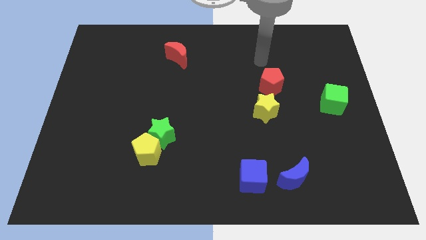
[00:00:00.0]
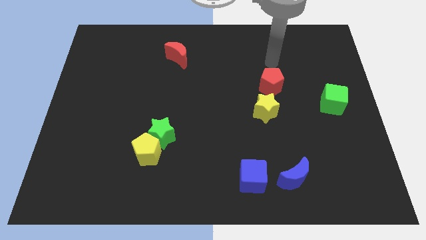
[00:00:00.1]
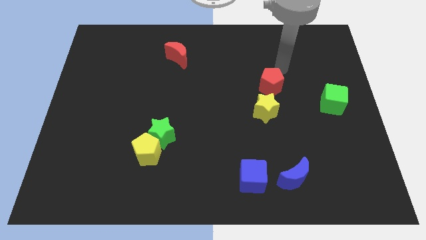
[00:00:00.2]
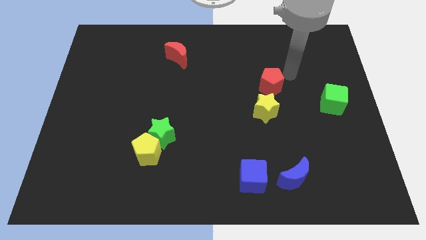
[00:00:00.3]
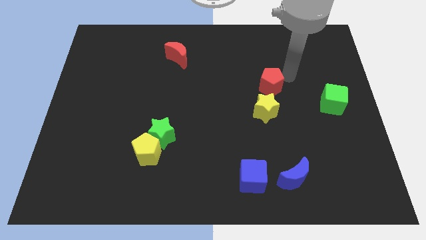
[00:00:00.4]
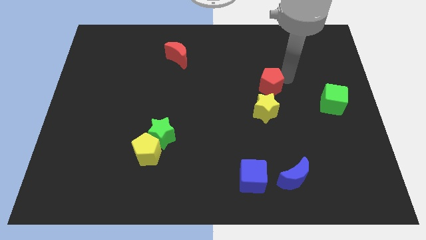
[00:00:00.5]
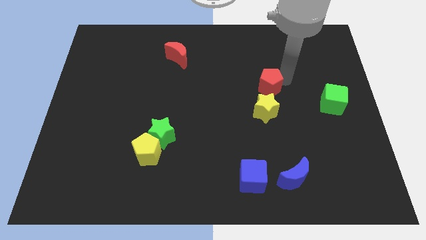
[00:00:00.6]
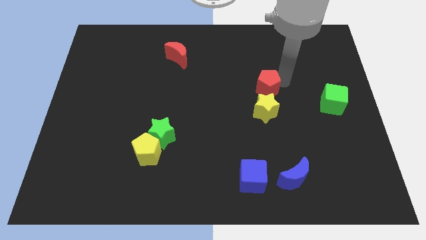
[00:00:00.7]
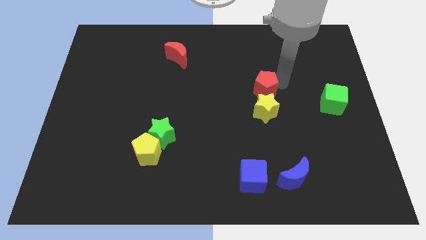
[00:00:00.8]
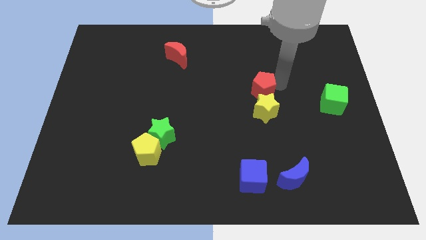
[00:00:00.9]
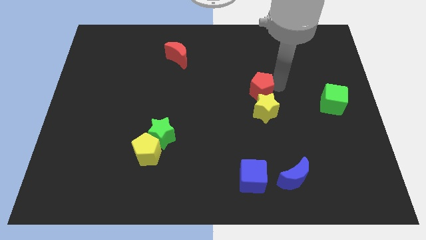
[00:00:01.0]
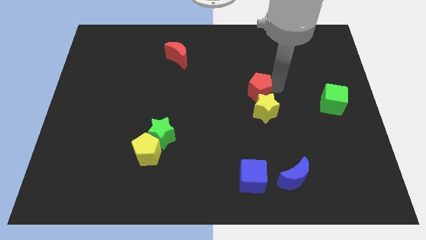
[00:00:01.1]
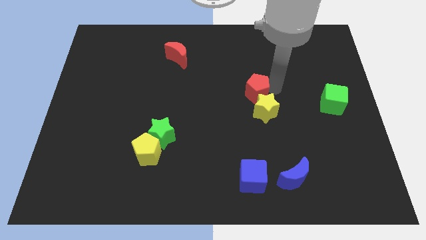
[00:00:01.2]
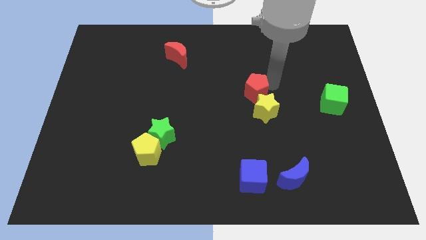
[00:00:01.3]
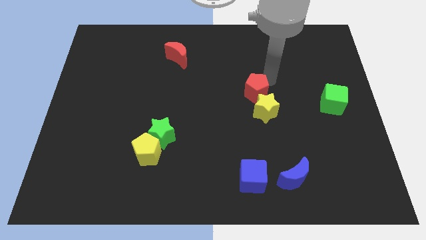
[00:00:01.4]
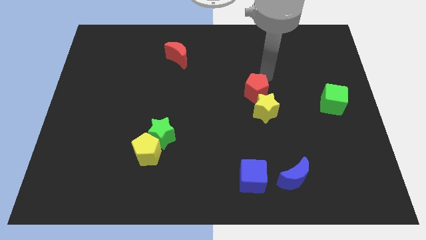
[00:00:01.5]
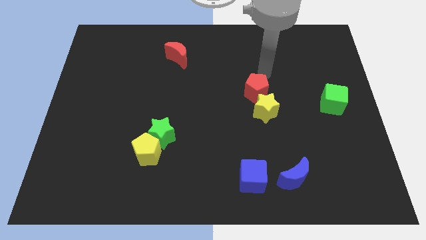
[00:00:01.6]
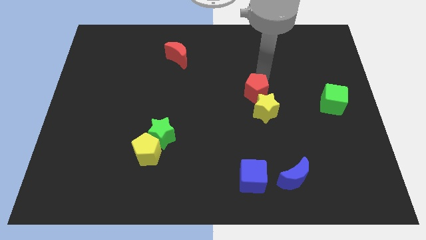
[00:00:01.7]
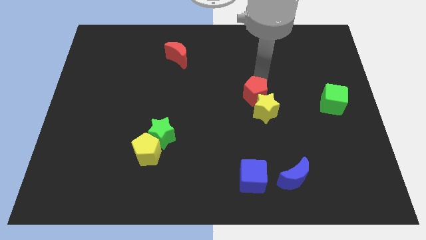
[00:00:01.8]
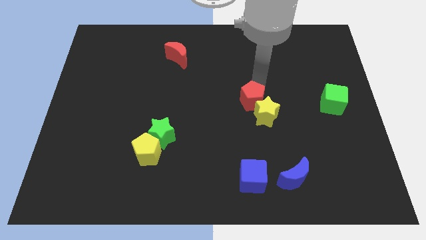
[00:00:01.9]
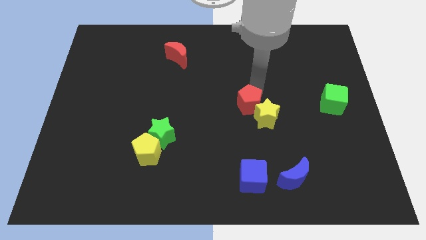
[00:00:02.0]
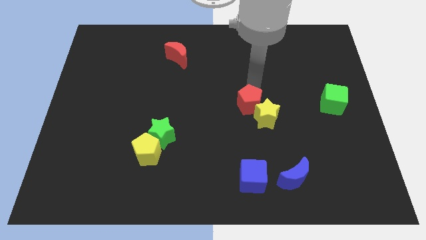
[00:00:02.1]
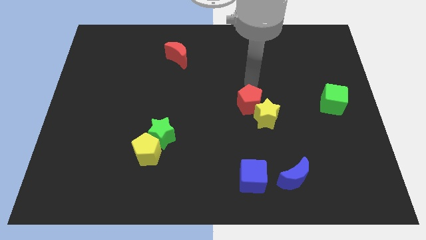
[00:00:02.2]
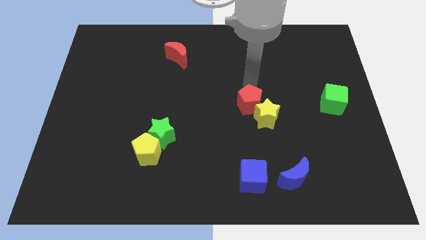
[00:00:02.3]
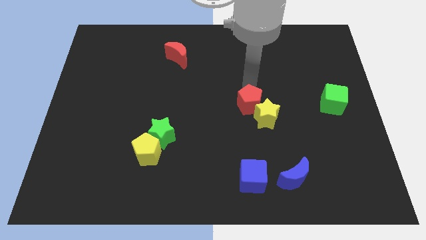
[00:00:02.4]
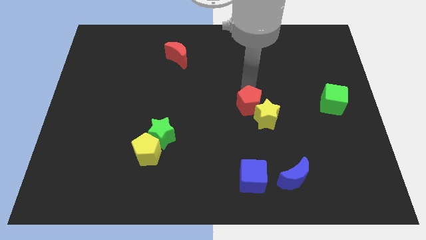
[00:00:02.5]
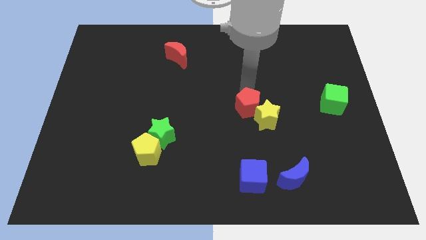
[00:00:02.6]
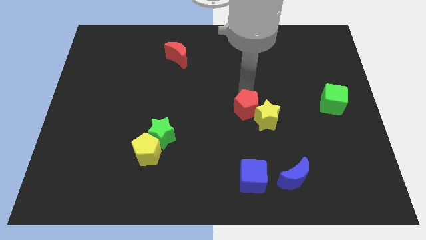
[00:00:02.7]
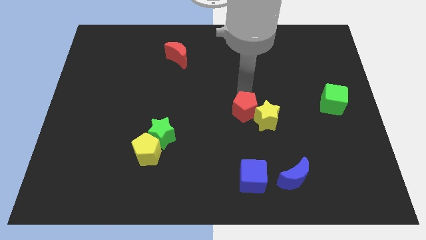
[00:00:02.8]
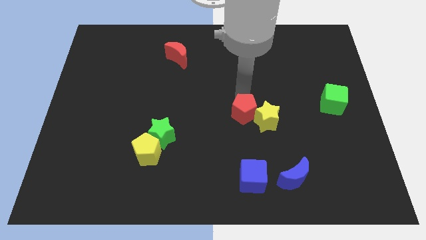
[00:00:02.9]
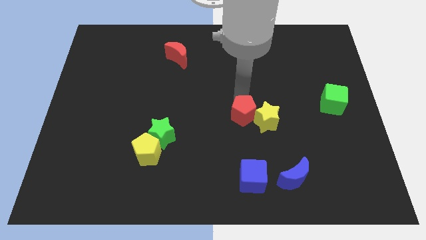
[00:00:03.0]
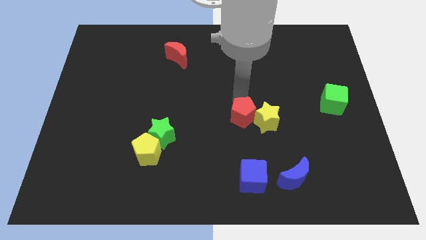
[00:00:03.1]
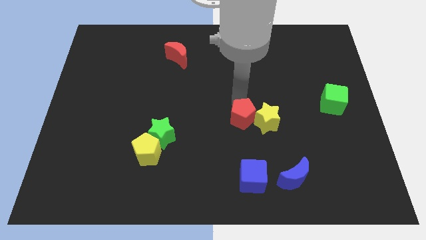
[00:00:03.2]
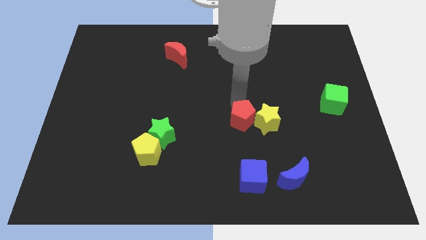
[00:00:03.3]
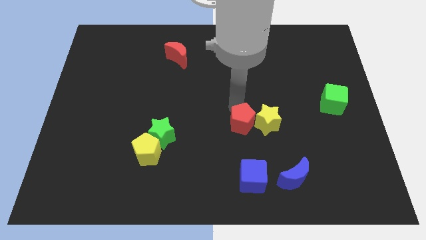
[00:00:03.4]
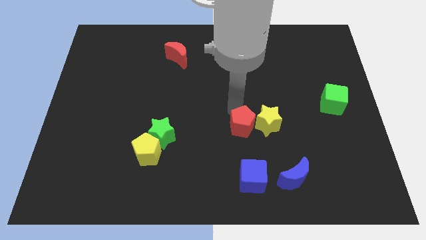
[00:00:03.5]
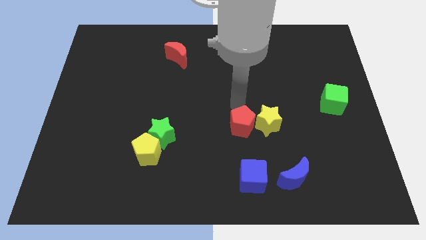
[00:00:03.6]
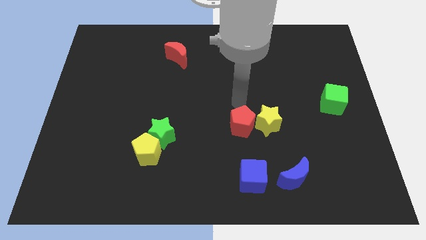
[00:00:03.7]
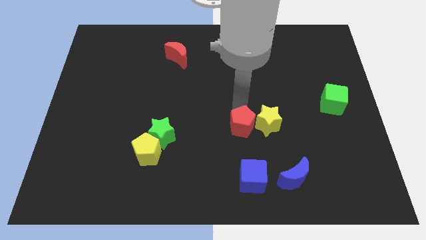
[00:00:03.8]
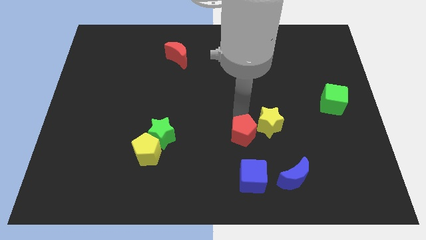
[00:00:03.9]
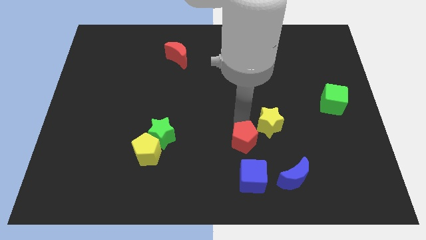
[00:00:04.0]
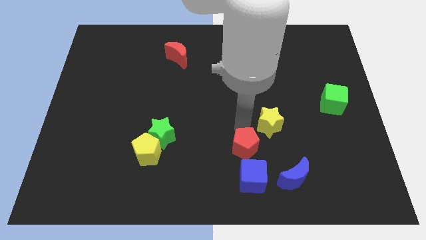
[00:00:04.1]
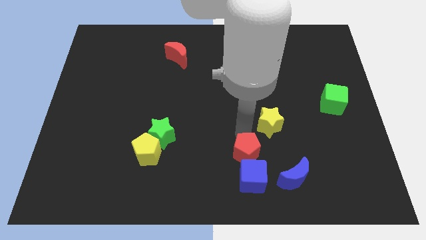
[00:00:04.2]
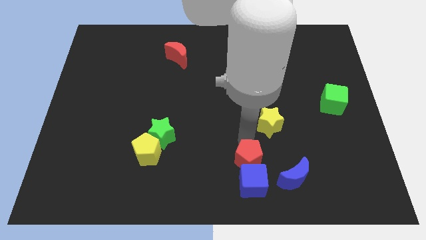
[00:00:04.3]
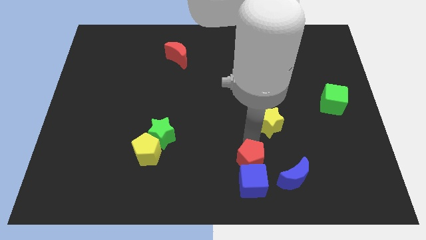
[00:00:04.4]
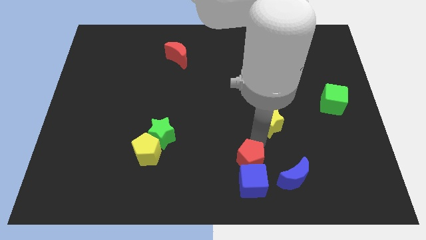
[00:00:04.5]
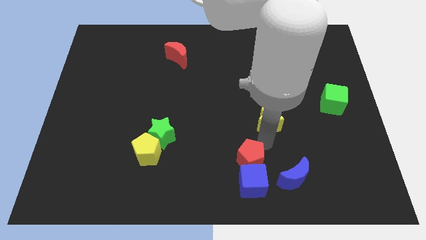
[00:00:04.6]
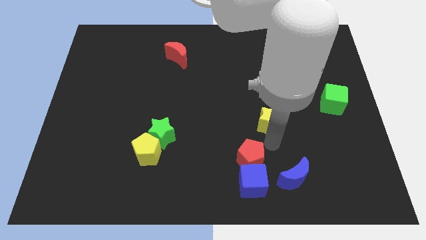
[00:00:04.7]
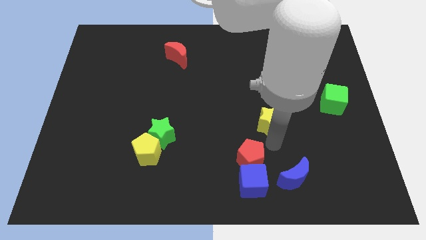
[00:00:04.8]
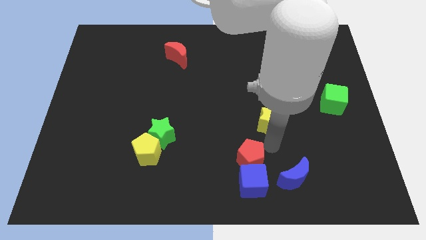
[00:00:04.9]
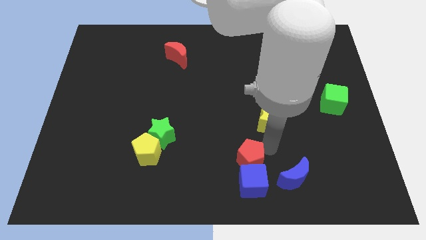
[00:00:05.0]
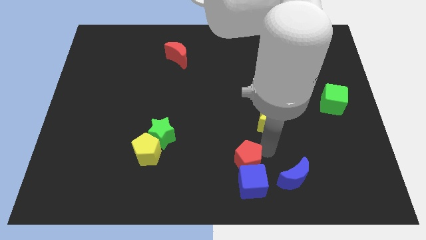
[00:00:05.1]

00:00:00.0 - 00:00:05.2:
put the red pentagon to the bottom
